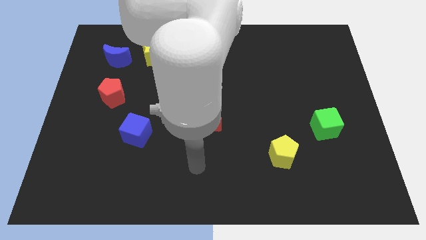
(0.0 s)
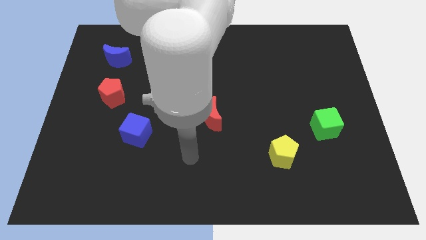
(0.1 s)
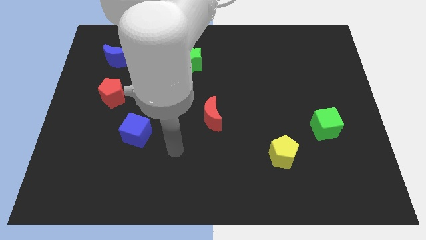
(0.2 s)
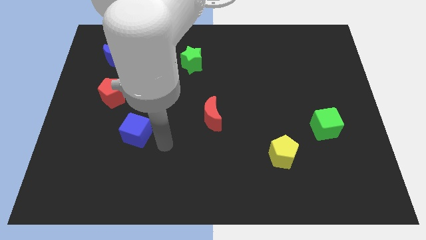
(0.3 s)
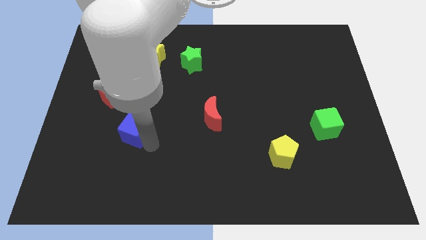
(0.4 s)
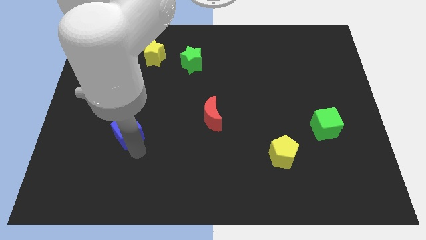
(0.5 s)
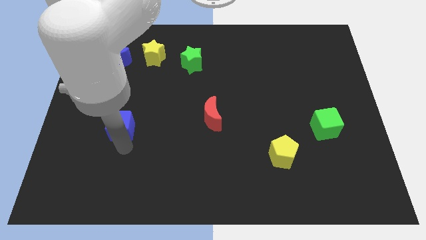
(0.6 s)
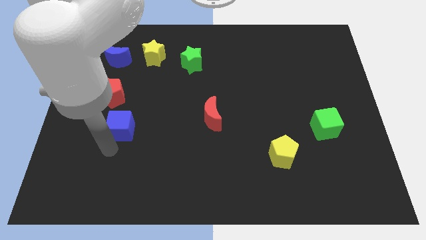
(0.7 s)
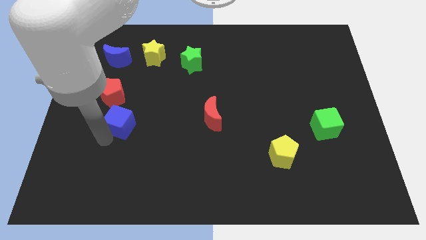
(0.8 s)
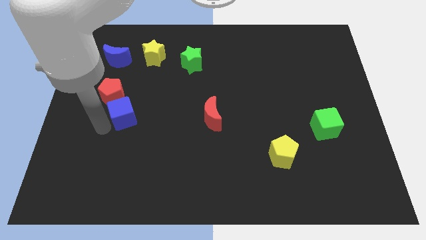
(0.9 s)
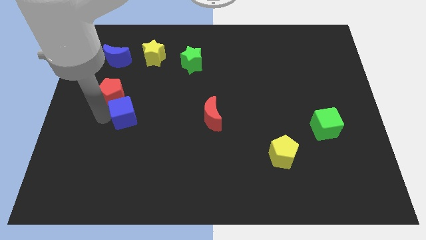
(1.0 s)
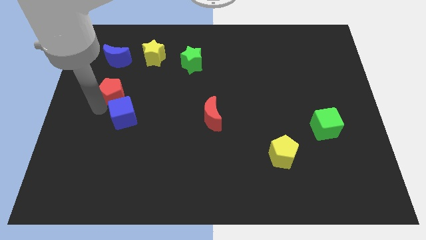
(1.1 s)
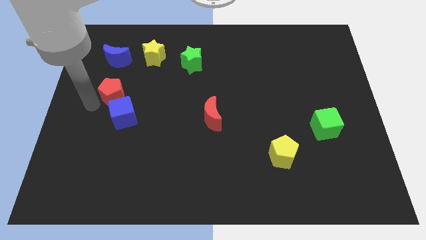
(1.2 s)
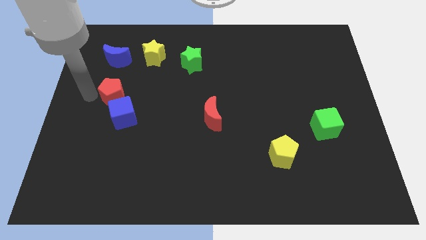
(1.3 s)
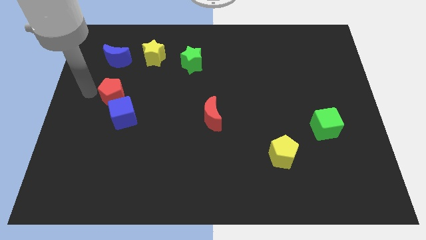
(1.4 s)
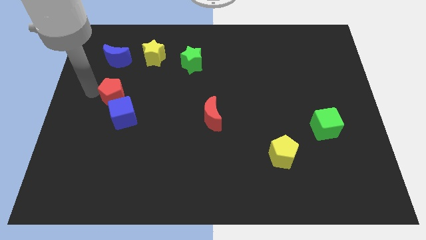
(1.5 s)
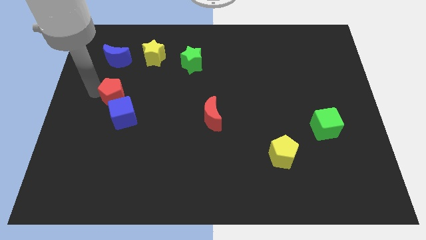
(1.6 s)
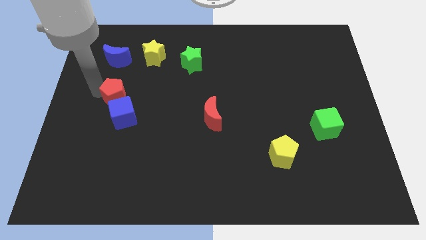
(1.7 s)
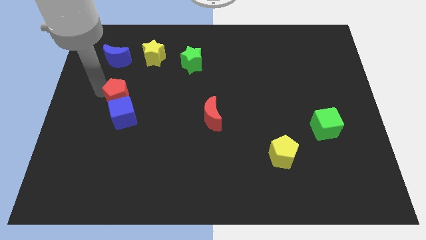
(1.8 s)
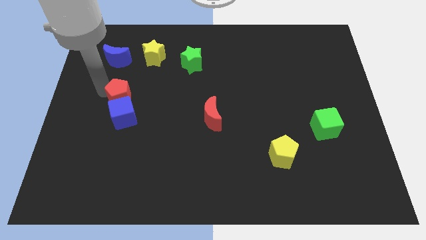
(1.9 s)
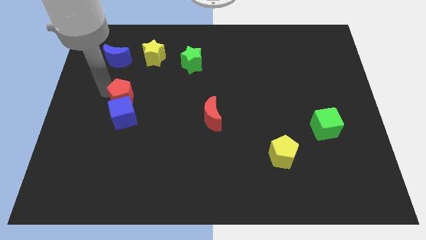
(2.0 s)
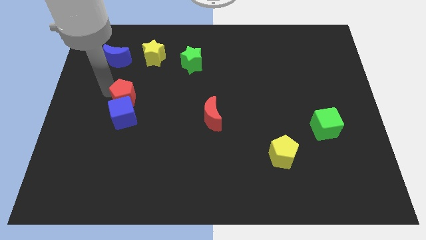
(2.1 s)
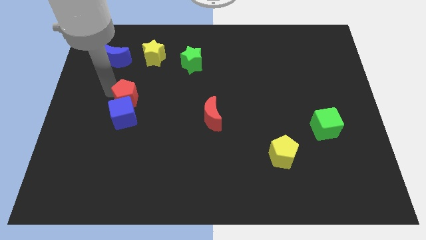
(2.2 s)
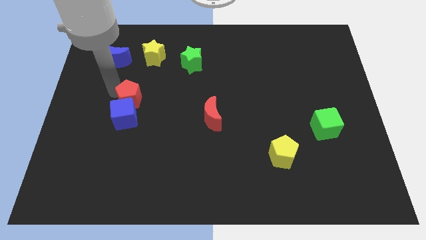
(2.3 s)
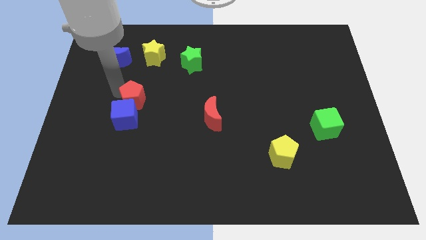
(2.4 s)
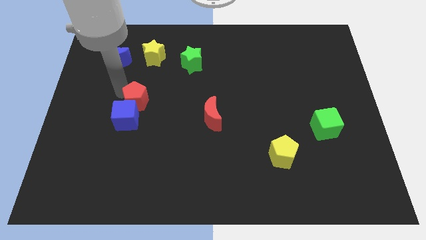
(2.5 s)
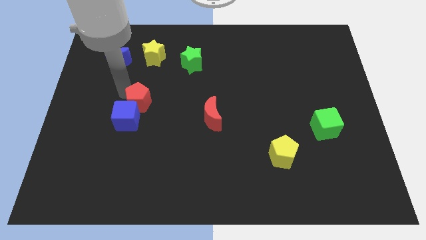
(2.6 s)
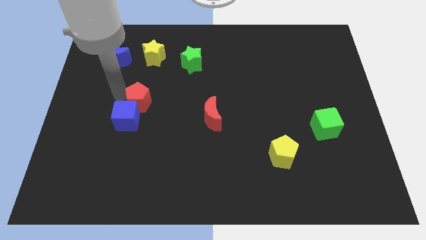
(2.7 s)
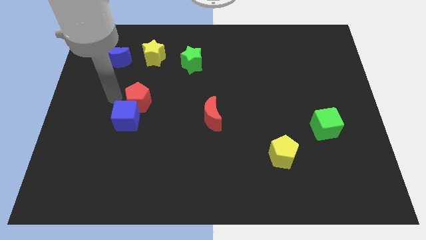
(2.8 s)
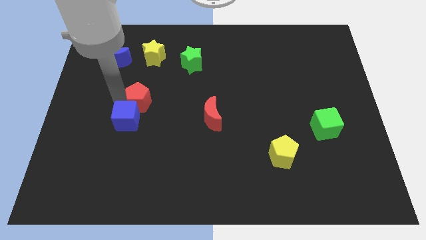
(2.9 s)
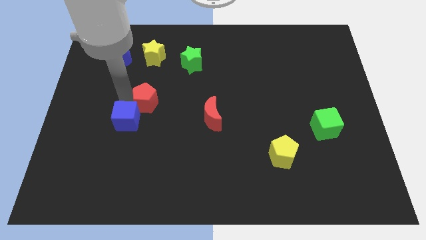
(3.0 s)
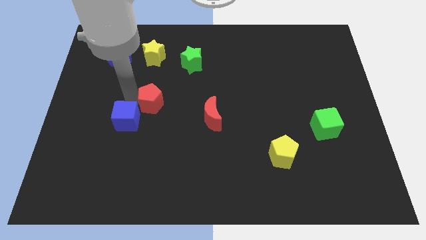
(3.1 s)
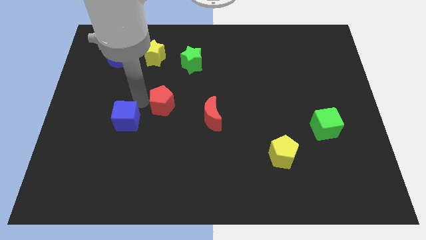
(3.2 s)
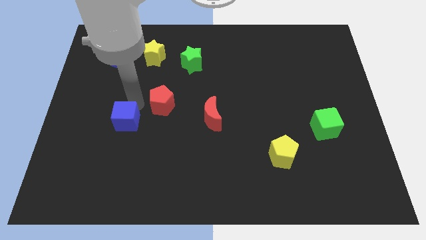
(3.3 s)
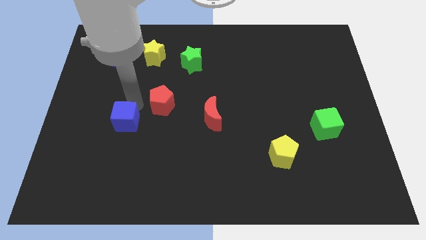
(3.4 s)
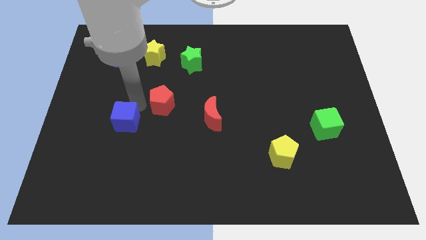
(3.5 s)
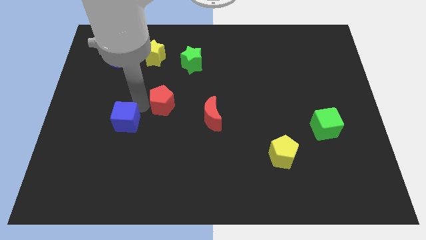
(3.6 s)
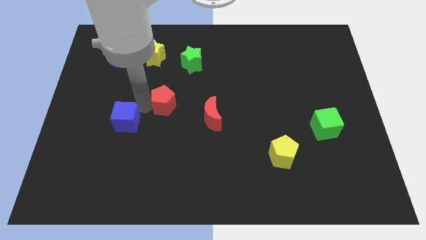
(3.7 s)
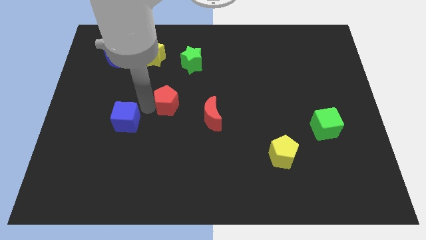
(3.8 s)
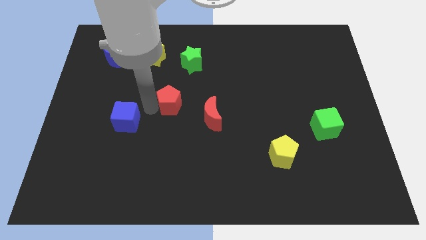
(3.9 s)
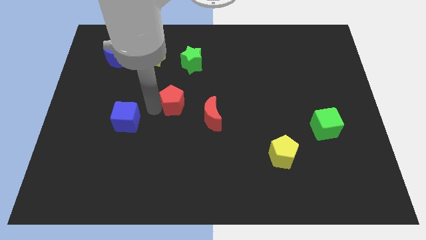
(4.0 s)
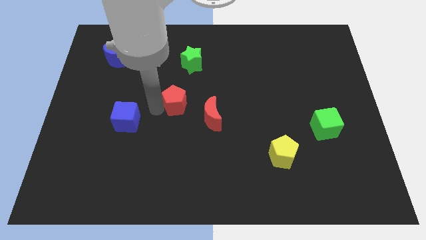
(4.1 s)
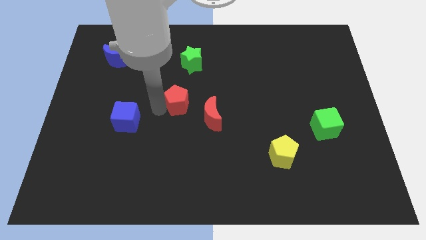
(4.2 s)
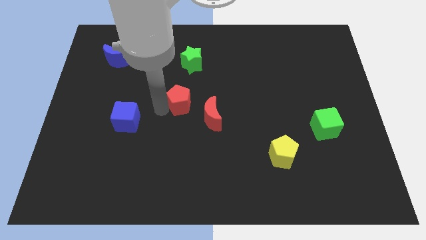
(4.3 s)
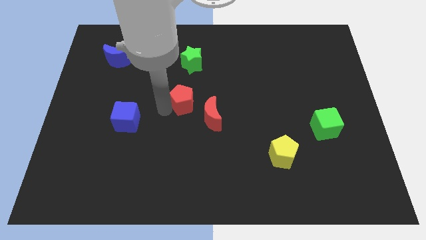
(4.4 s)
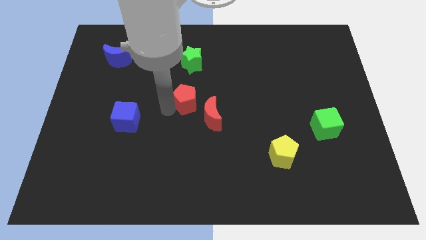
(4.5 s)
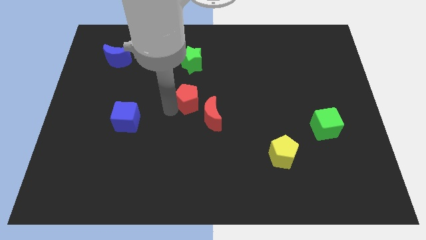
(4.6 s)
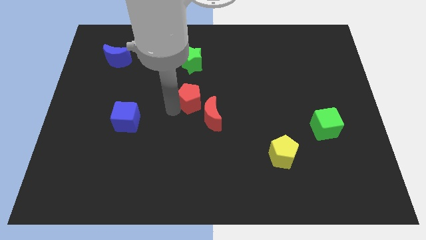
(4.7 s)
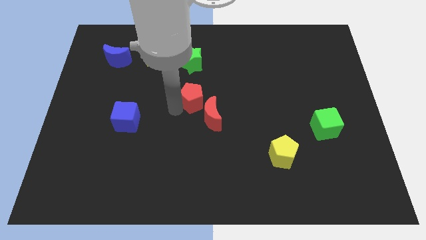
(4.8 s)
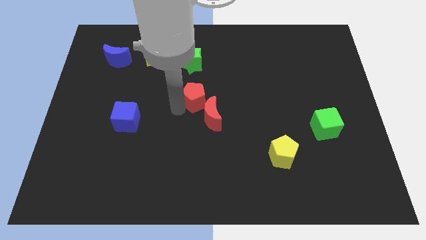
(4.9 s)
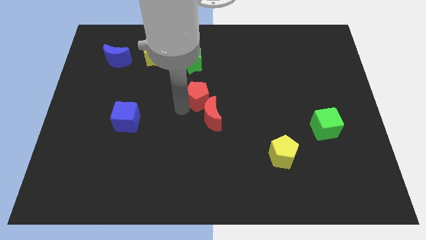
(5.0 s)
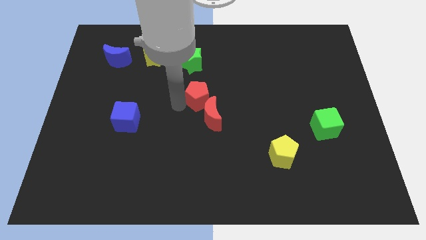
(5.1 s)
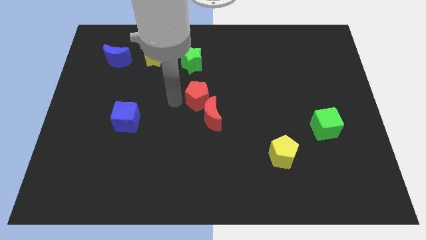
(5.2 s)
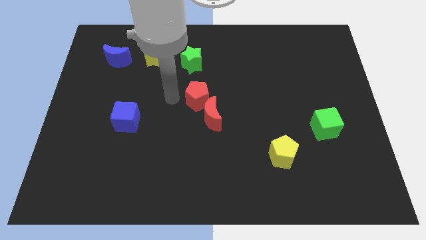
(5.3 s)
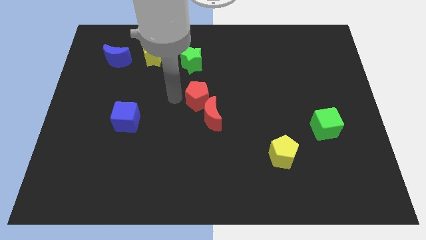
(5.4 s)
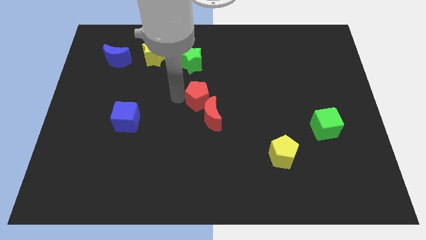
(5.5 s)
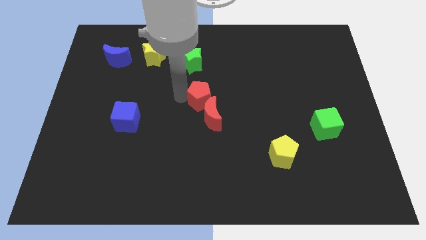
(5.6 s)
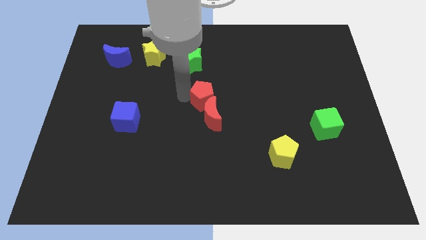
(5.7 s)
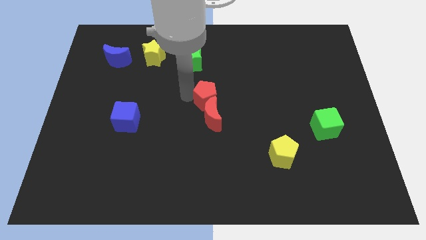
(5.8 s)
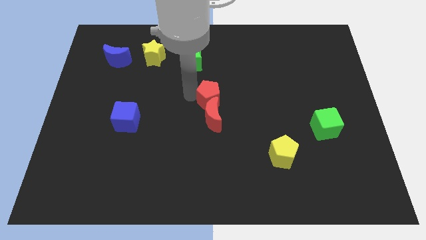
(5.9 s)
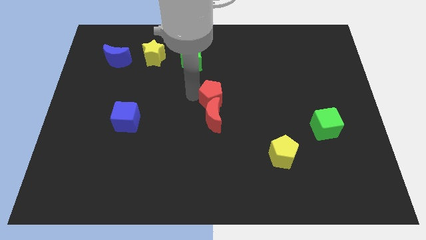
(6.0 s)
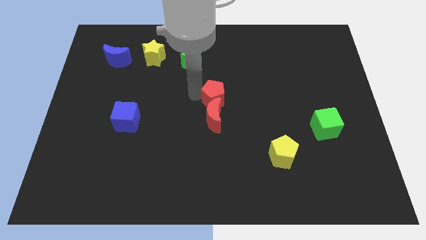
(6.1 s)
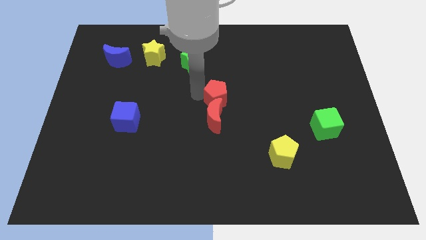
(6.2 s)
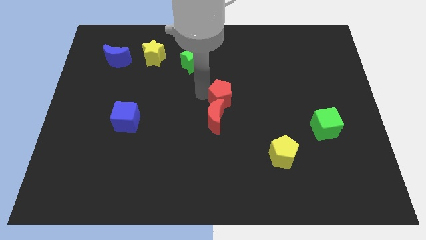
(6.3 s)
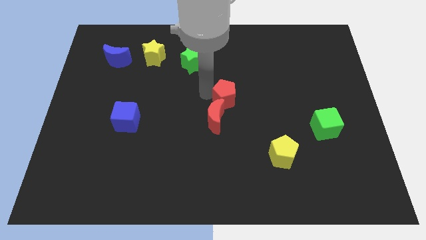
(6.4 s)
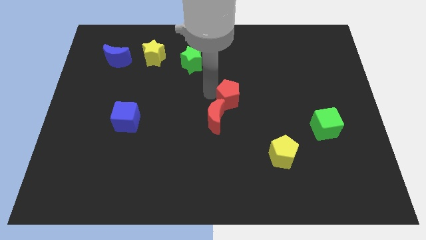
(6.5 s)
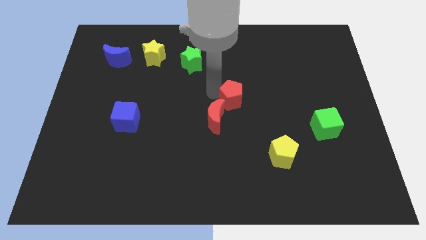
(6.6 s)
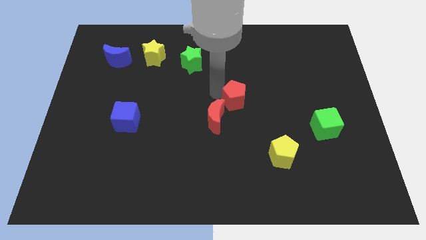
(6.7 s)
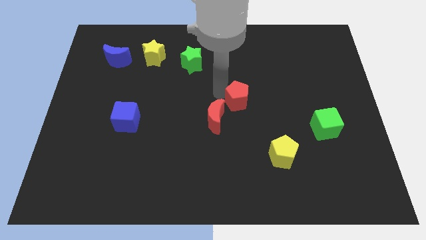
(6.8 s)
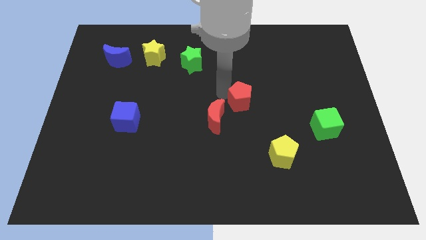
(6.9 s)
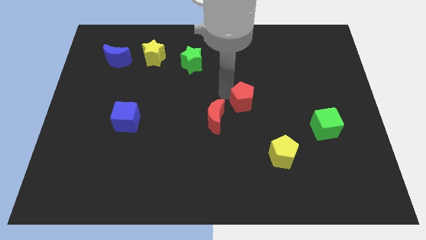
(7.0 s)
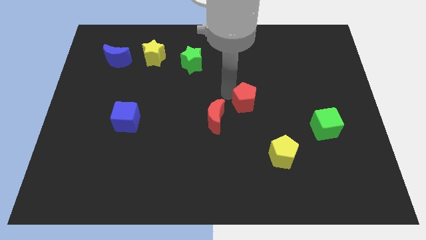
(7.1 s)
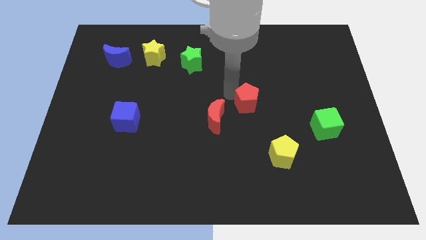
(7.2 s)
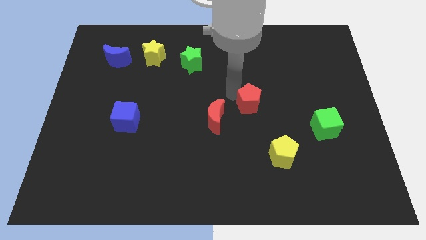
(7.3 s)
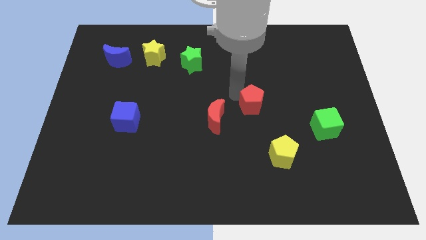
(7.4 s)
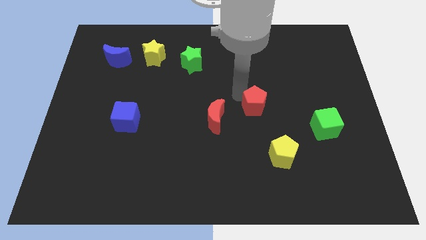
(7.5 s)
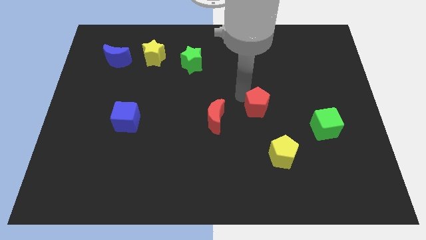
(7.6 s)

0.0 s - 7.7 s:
push the red pentagon to the top of the yellow pentagon
